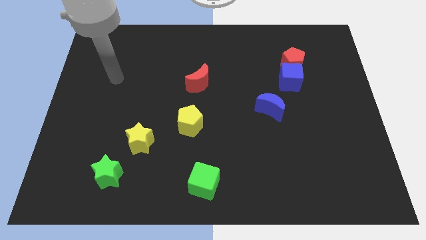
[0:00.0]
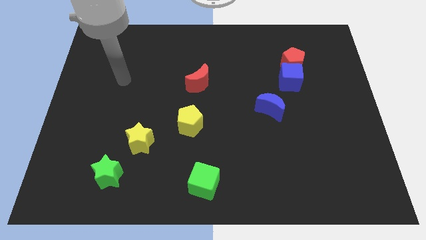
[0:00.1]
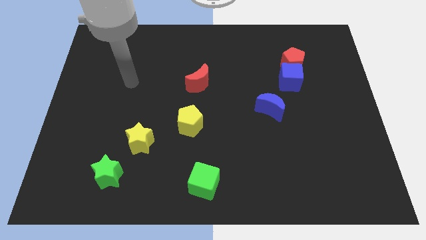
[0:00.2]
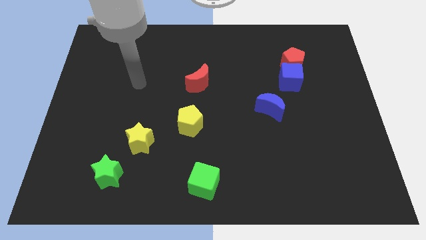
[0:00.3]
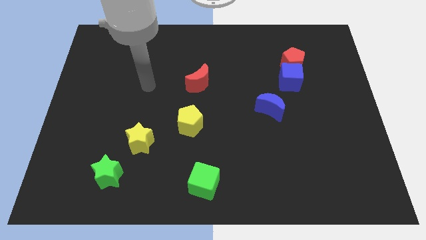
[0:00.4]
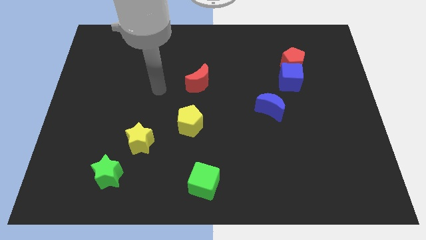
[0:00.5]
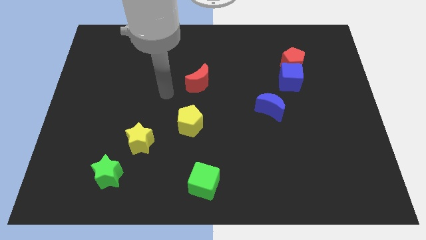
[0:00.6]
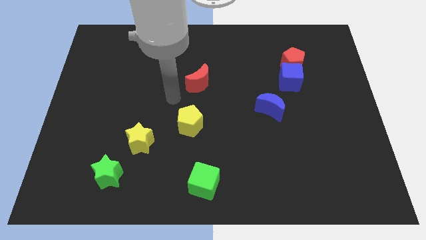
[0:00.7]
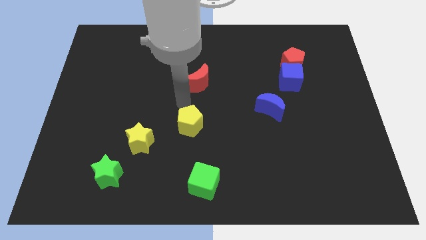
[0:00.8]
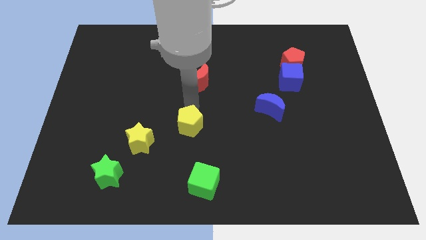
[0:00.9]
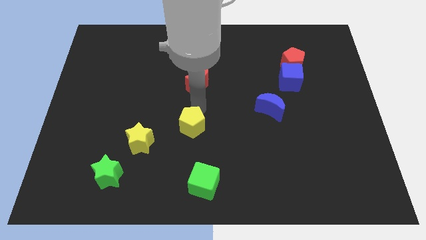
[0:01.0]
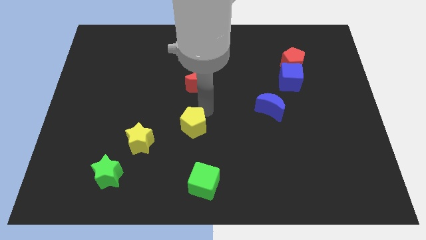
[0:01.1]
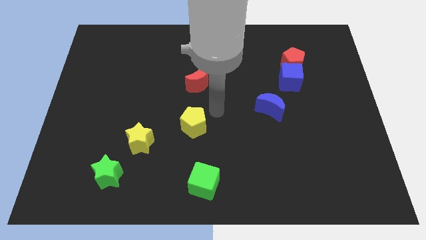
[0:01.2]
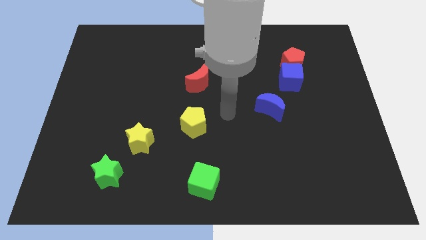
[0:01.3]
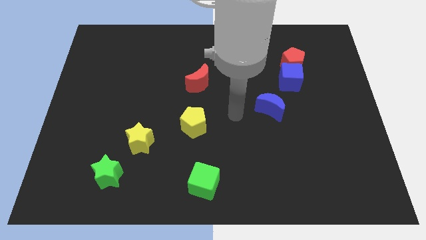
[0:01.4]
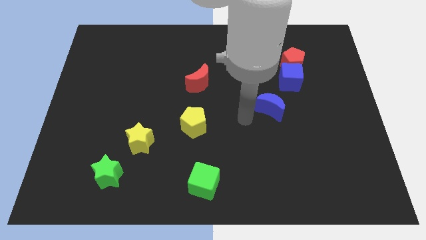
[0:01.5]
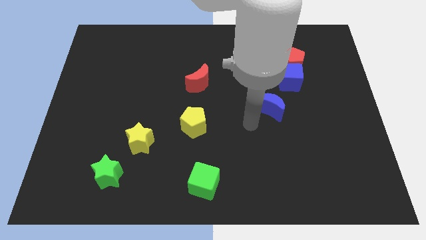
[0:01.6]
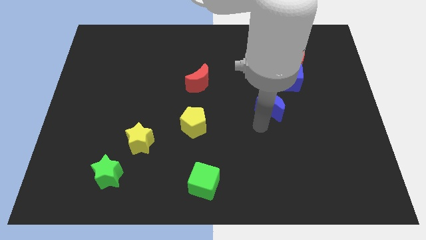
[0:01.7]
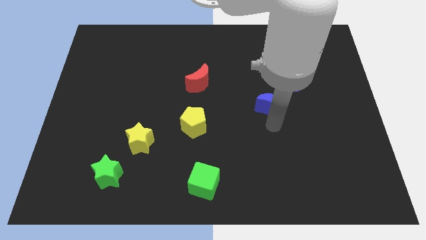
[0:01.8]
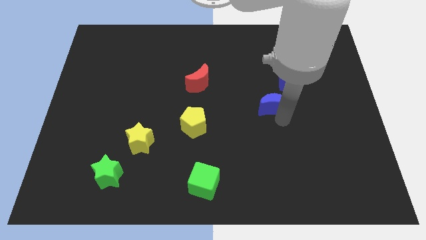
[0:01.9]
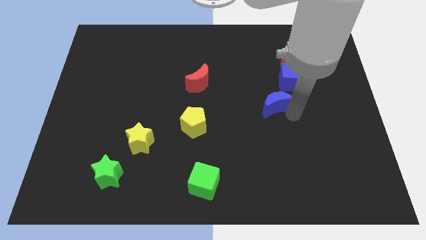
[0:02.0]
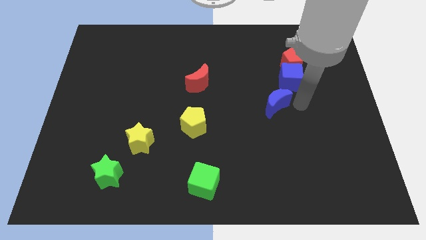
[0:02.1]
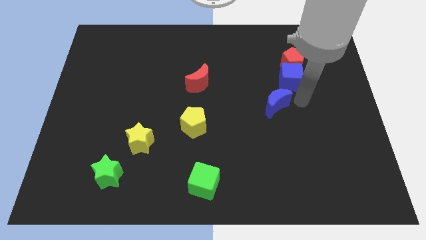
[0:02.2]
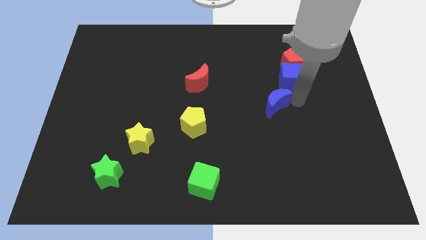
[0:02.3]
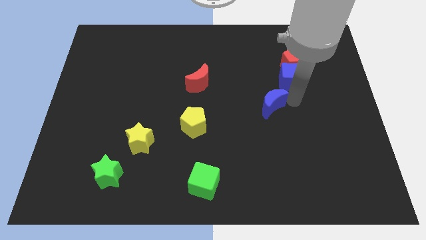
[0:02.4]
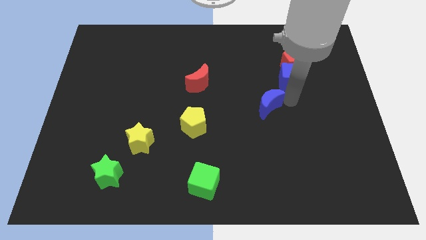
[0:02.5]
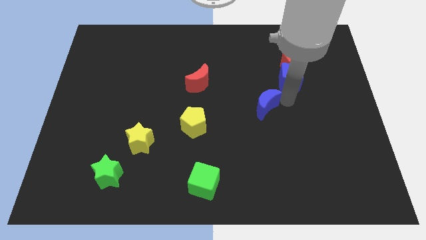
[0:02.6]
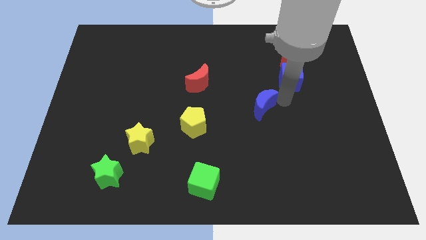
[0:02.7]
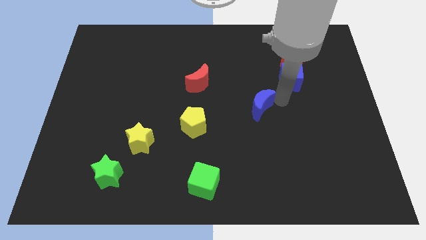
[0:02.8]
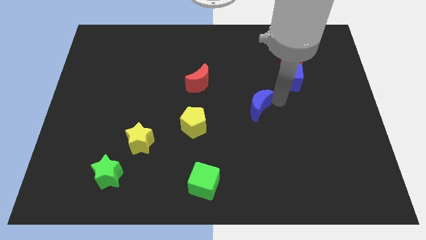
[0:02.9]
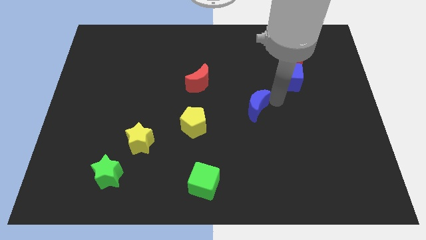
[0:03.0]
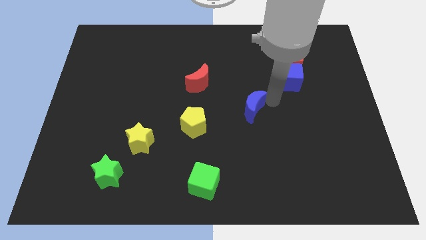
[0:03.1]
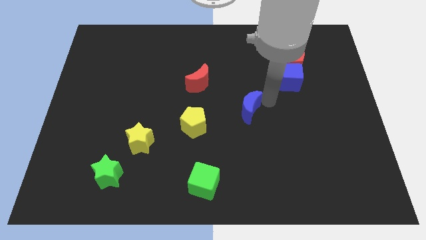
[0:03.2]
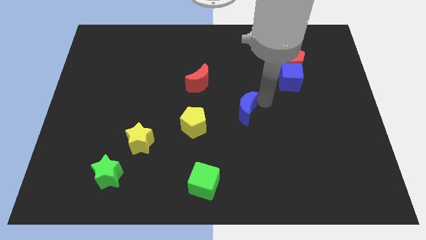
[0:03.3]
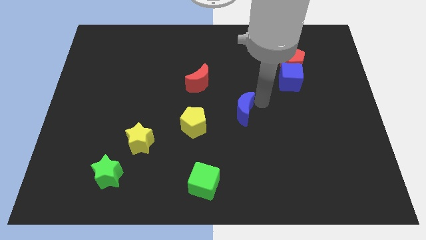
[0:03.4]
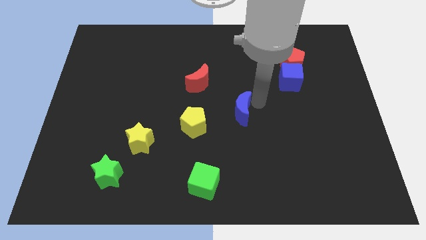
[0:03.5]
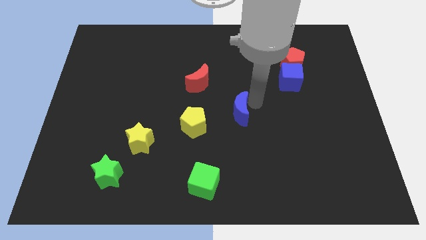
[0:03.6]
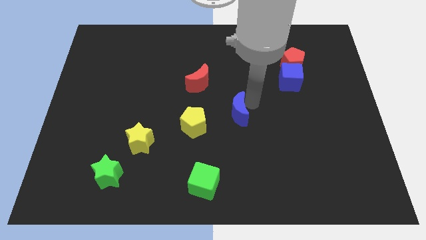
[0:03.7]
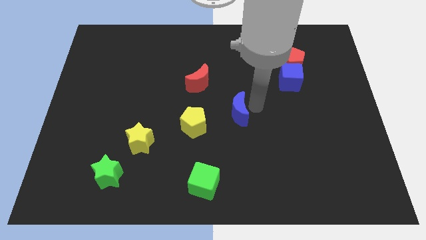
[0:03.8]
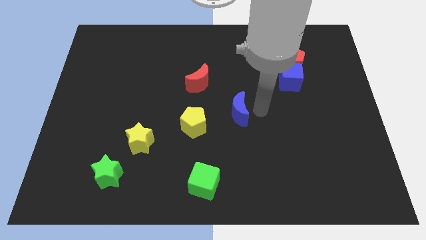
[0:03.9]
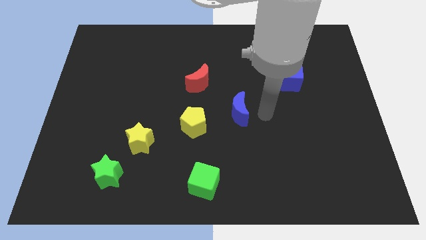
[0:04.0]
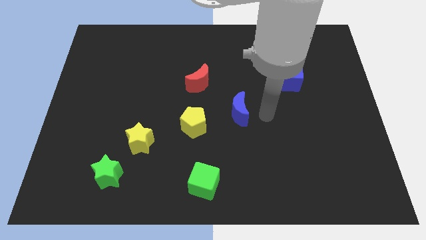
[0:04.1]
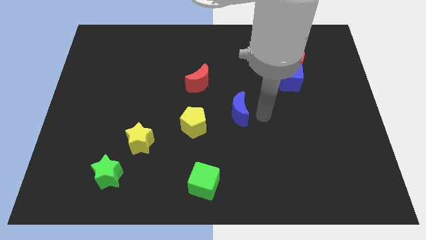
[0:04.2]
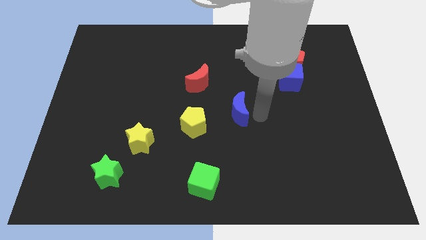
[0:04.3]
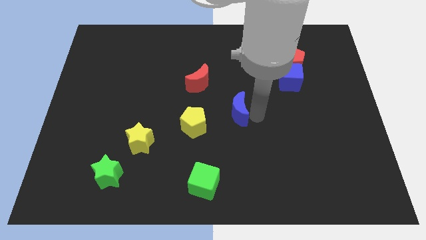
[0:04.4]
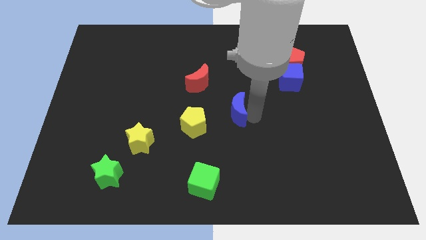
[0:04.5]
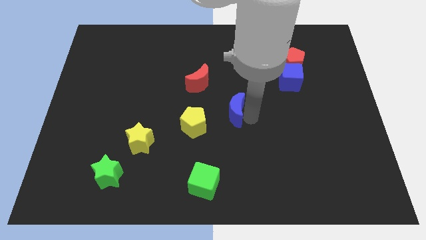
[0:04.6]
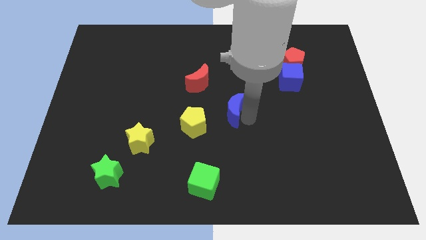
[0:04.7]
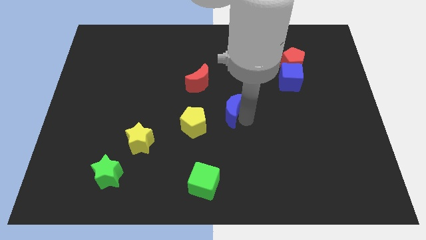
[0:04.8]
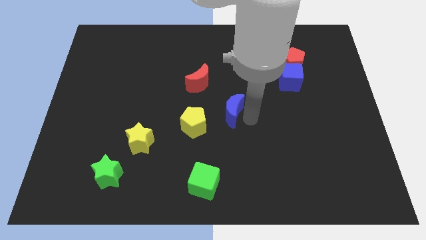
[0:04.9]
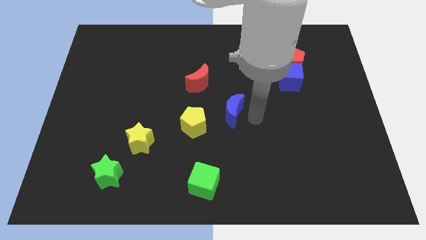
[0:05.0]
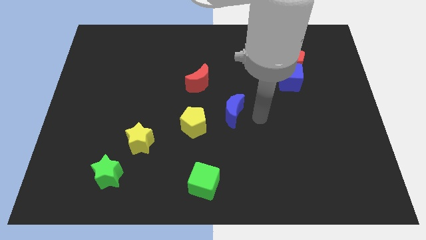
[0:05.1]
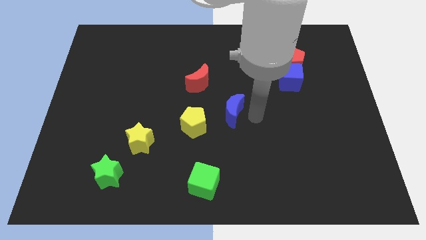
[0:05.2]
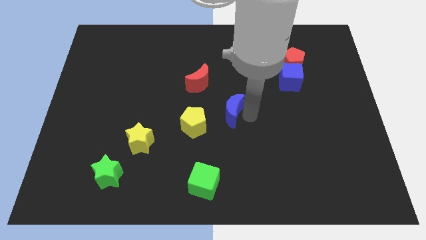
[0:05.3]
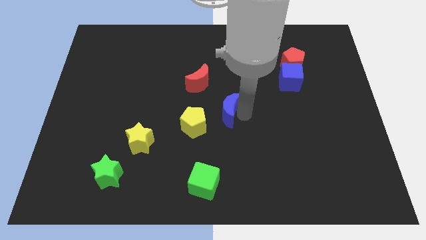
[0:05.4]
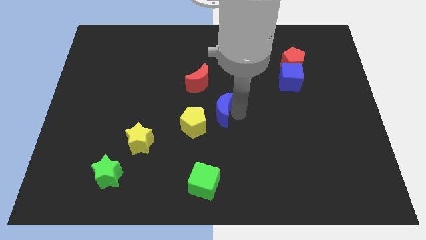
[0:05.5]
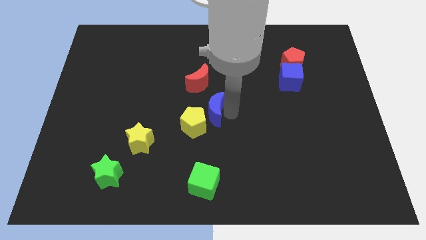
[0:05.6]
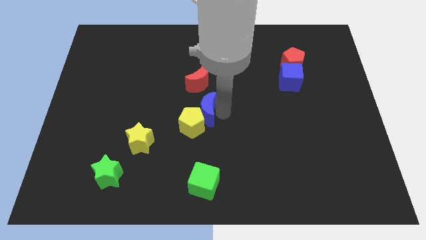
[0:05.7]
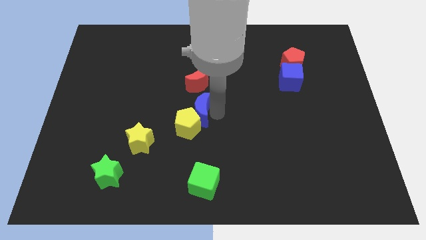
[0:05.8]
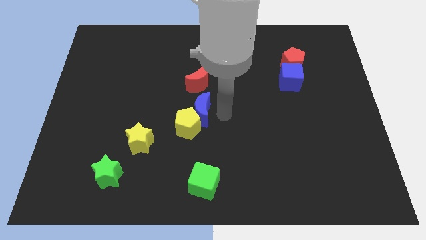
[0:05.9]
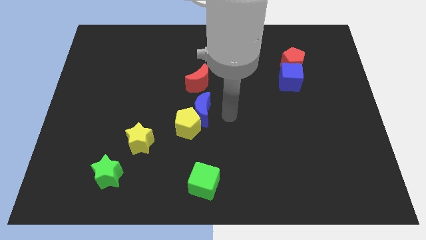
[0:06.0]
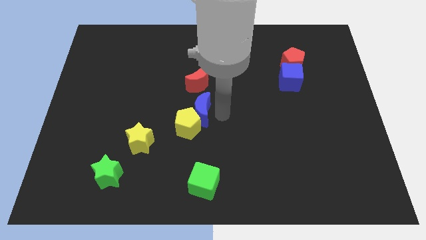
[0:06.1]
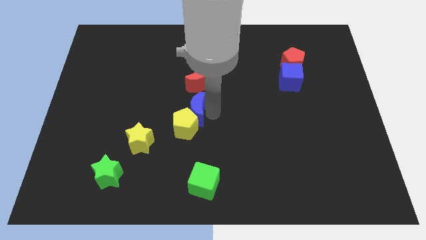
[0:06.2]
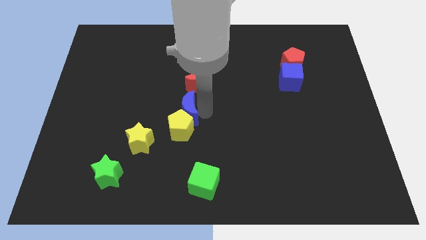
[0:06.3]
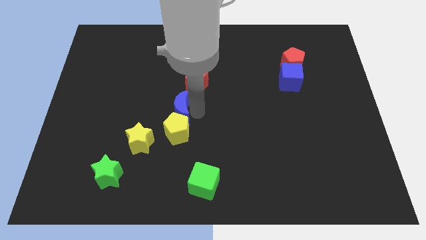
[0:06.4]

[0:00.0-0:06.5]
slide the blue moon left

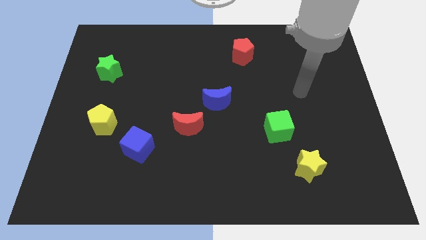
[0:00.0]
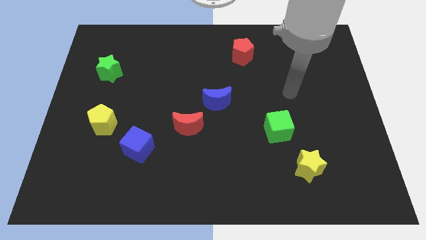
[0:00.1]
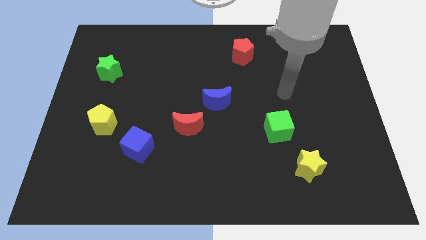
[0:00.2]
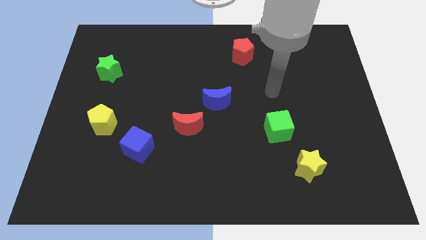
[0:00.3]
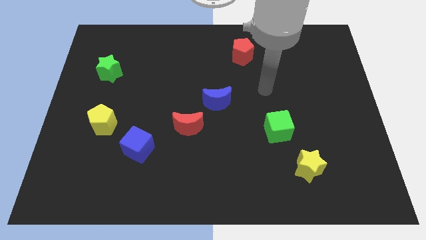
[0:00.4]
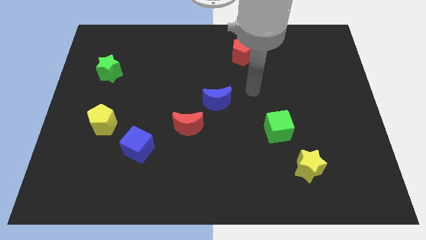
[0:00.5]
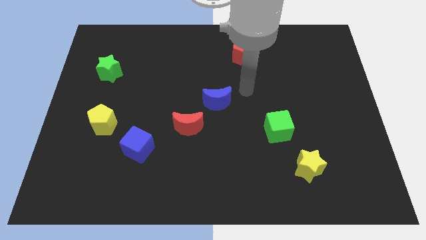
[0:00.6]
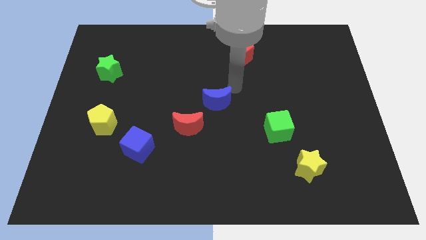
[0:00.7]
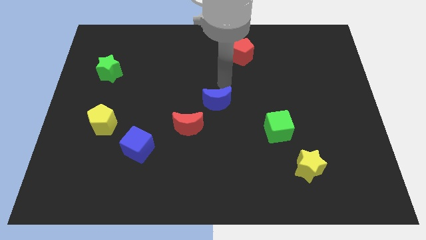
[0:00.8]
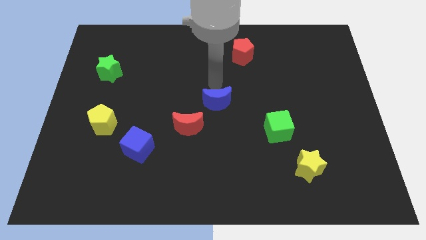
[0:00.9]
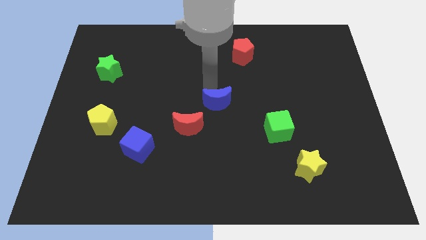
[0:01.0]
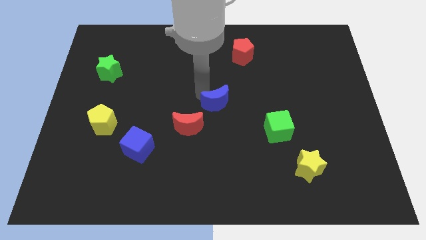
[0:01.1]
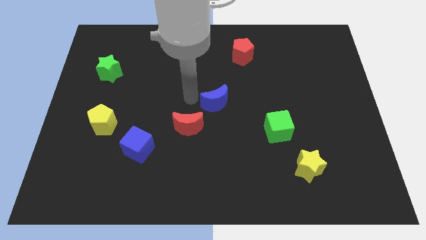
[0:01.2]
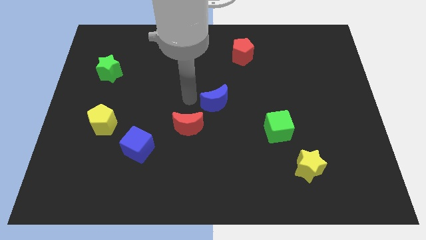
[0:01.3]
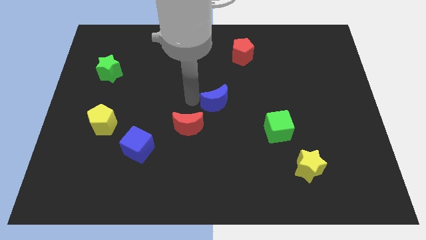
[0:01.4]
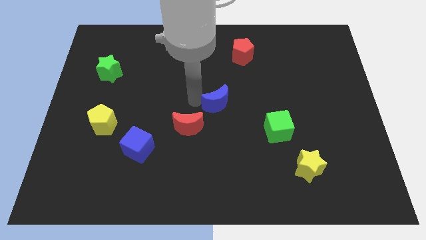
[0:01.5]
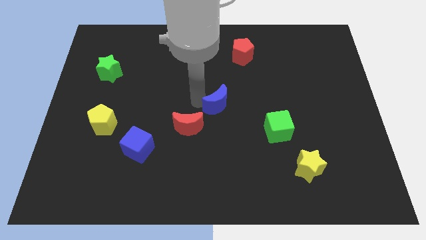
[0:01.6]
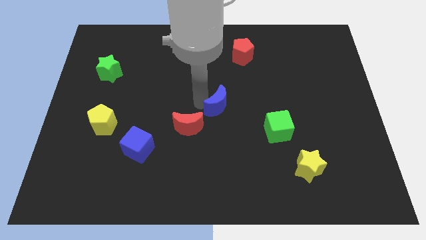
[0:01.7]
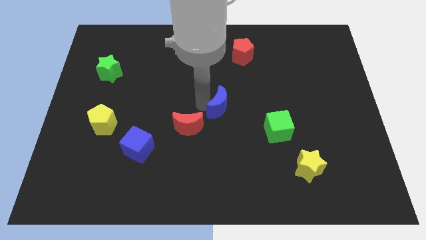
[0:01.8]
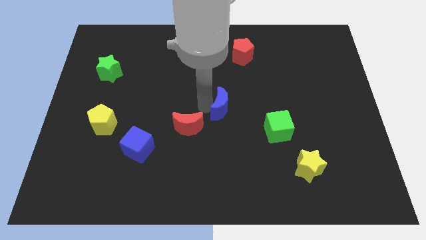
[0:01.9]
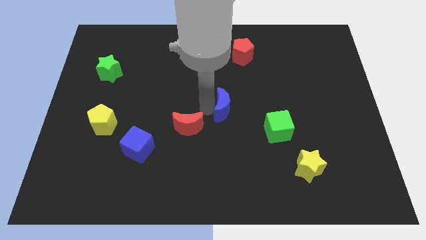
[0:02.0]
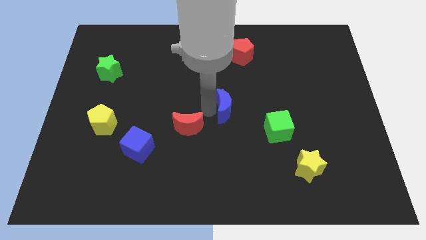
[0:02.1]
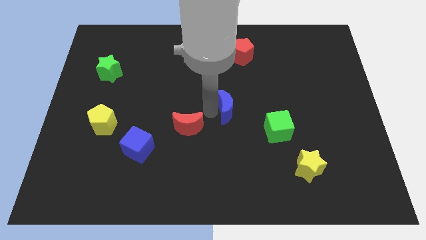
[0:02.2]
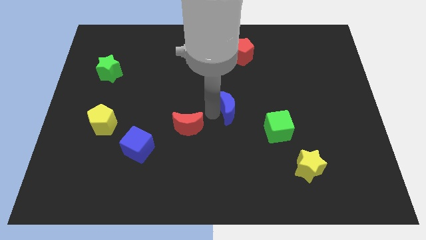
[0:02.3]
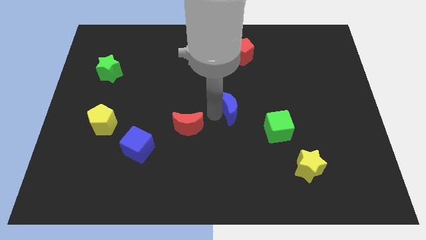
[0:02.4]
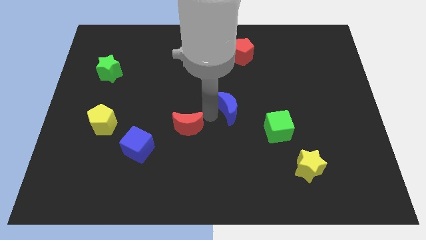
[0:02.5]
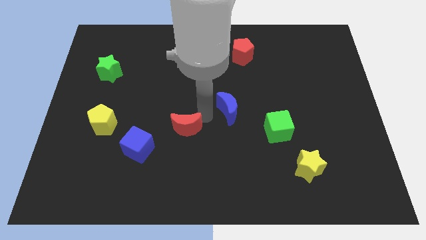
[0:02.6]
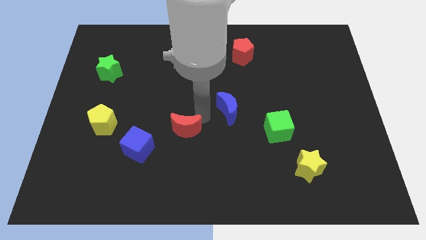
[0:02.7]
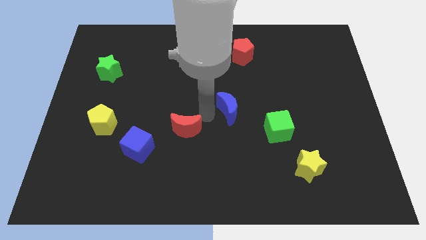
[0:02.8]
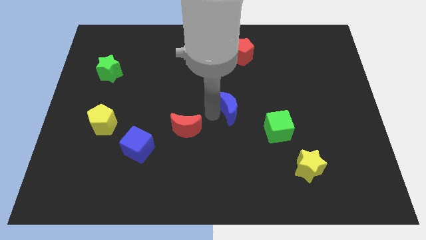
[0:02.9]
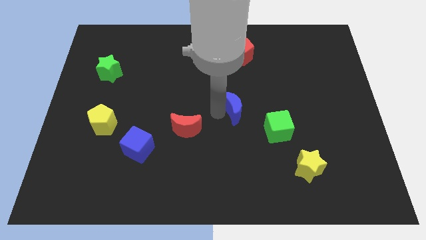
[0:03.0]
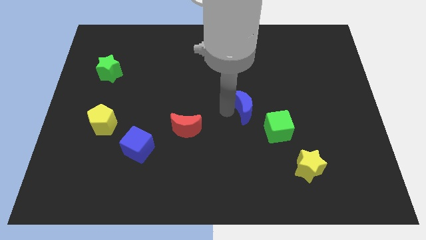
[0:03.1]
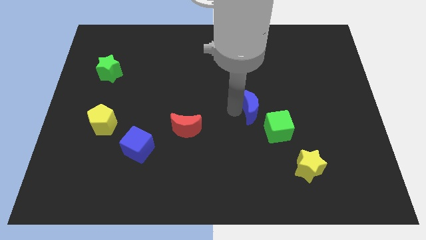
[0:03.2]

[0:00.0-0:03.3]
slightly slide the blue moon right
